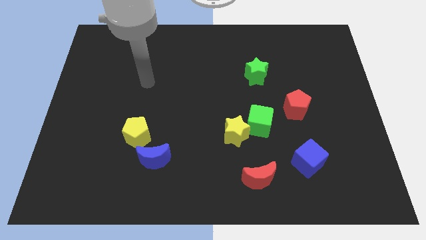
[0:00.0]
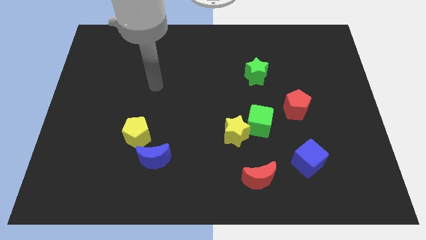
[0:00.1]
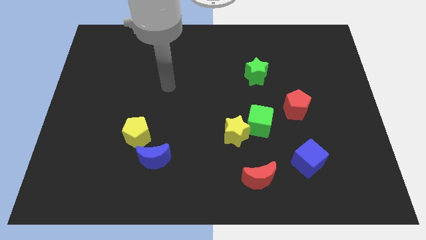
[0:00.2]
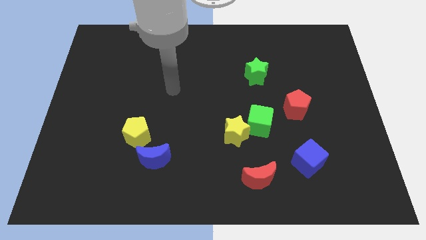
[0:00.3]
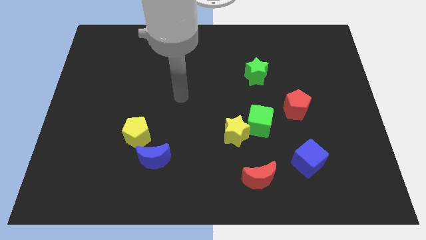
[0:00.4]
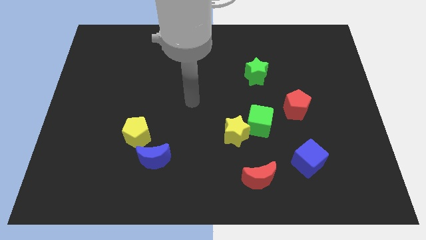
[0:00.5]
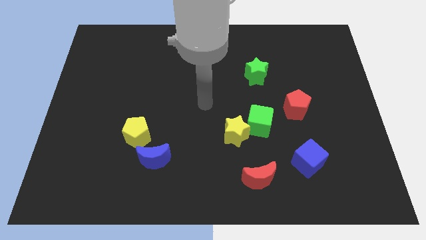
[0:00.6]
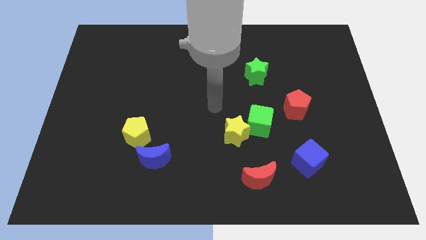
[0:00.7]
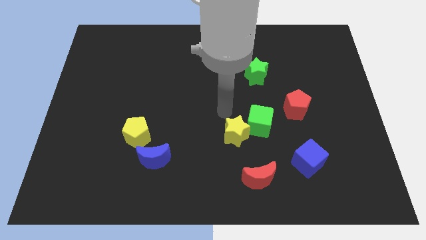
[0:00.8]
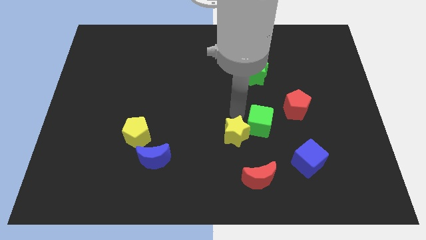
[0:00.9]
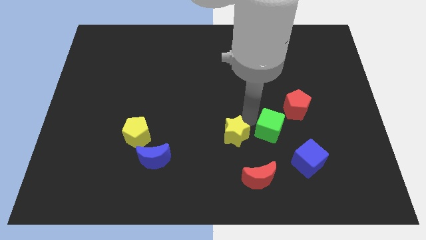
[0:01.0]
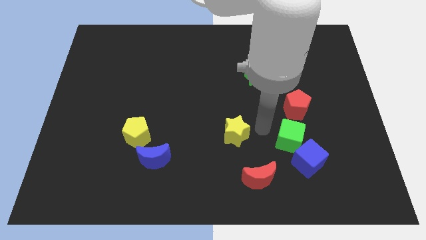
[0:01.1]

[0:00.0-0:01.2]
pull the yellow star apart from the green cube

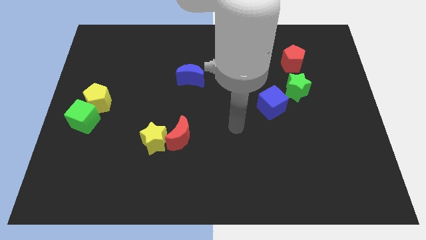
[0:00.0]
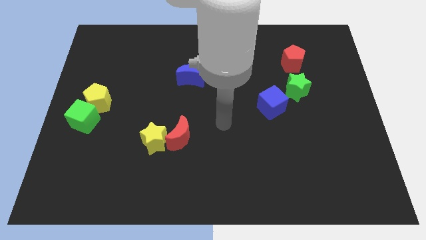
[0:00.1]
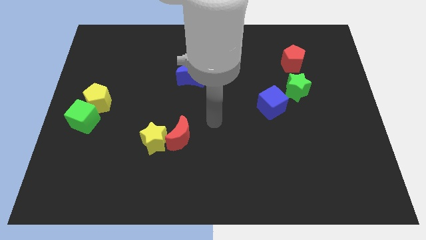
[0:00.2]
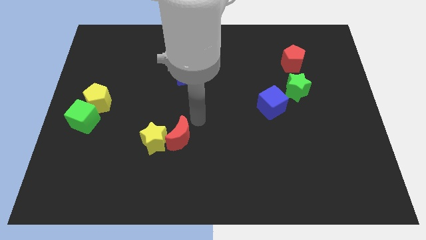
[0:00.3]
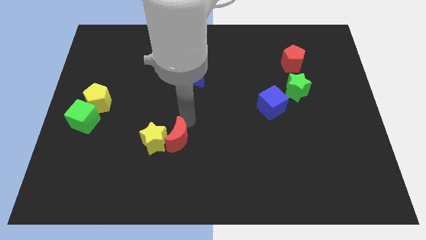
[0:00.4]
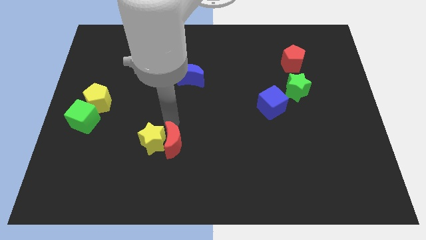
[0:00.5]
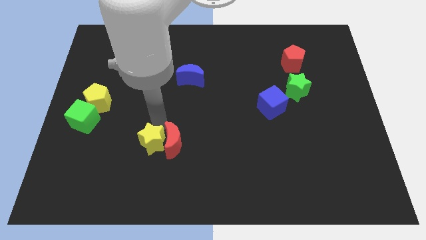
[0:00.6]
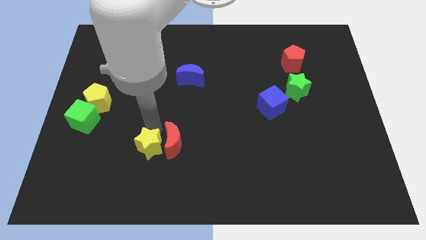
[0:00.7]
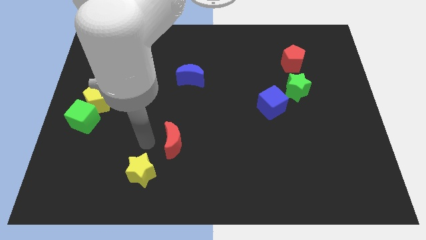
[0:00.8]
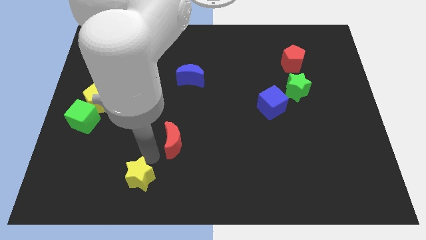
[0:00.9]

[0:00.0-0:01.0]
pull the red moon apart from the yellow star

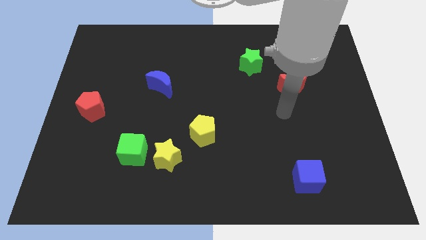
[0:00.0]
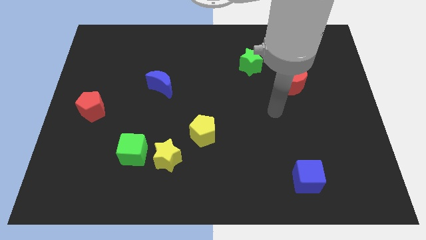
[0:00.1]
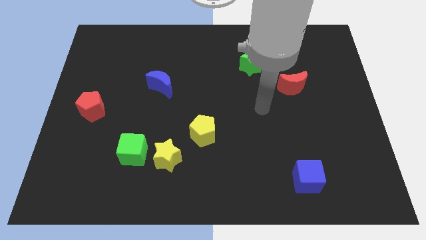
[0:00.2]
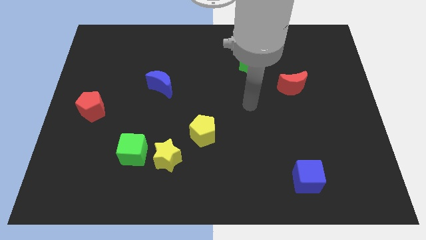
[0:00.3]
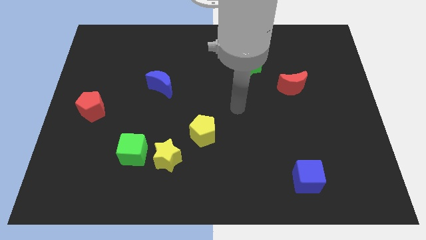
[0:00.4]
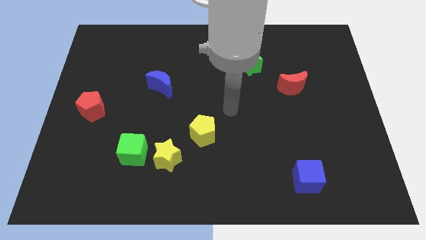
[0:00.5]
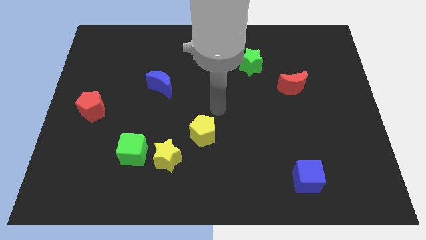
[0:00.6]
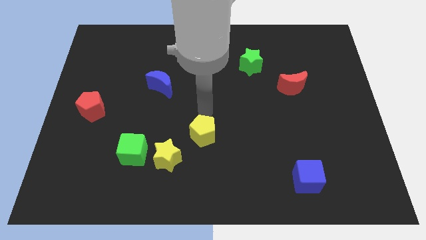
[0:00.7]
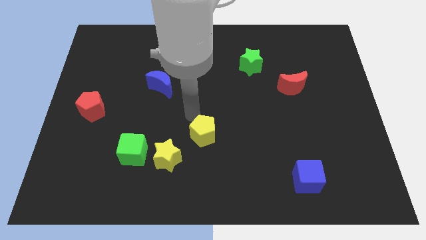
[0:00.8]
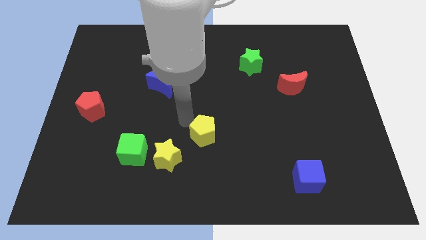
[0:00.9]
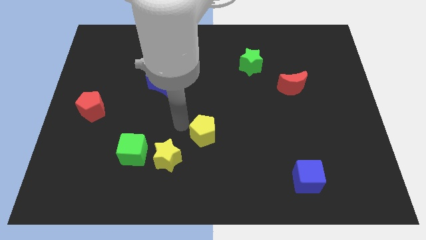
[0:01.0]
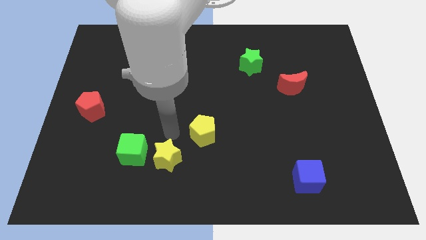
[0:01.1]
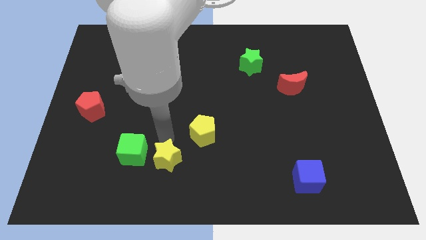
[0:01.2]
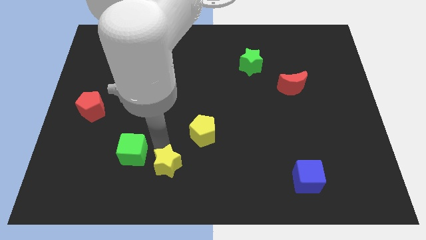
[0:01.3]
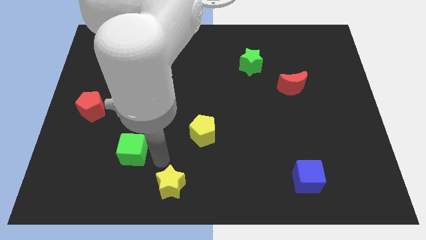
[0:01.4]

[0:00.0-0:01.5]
separate the green cube from the yellow star

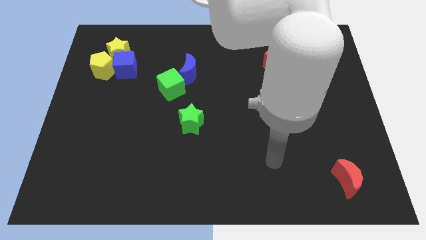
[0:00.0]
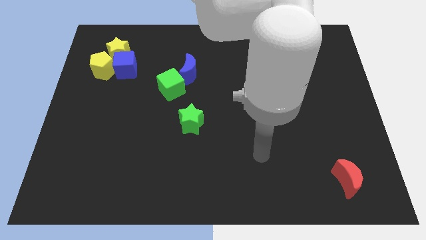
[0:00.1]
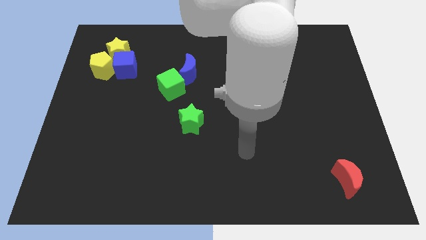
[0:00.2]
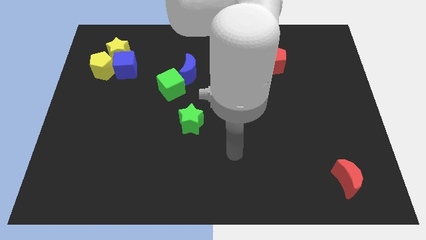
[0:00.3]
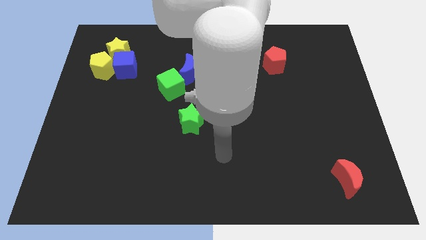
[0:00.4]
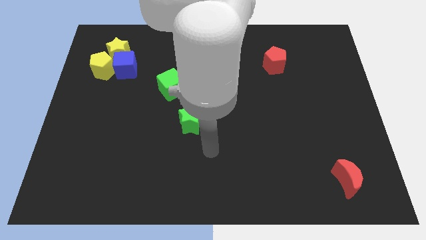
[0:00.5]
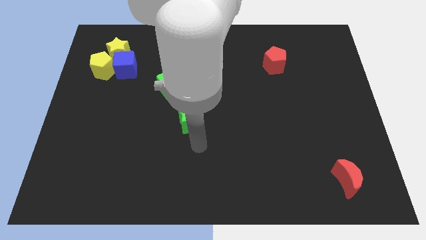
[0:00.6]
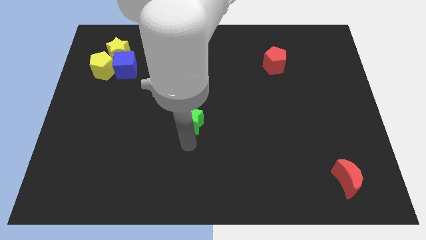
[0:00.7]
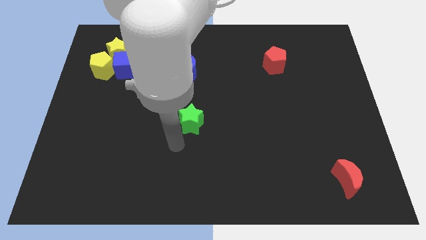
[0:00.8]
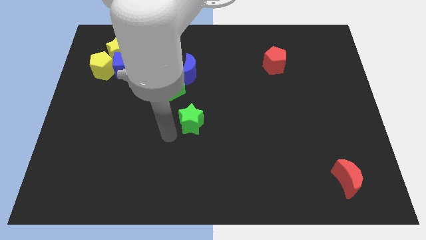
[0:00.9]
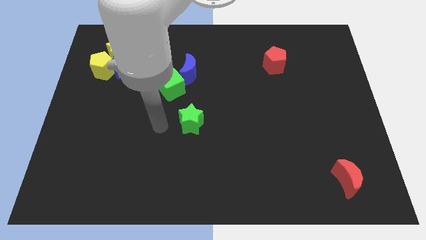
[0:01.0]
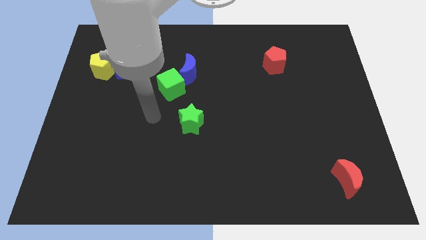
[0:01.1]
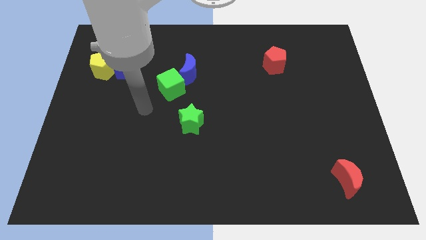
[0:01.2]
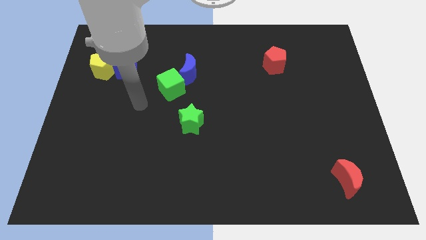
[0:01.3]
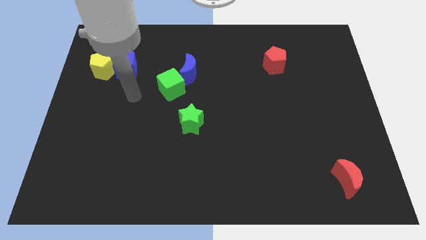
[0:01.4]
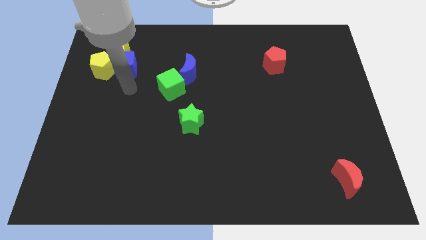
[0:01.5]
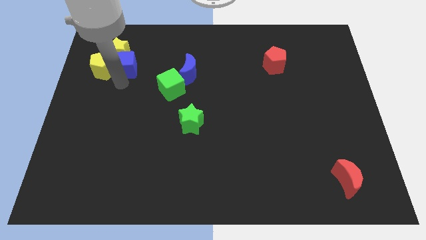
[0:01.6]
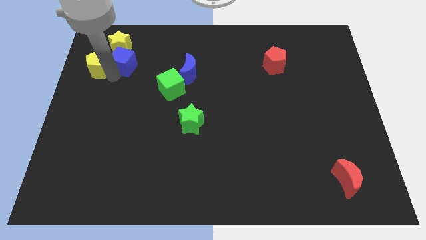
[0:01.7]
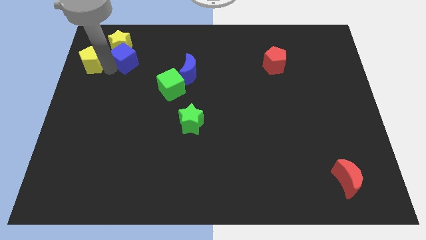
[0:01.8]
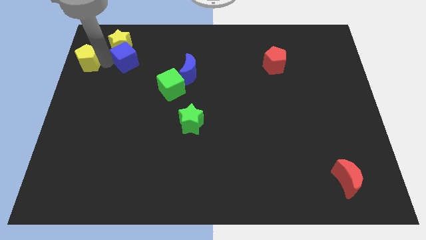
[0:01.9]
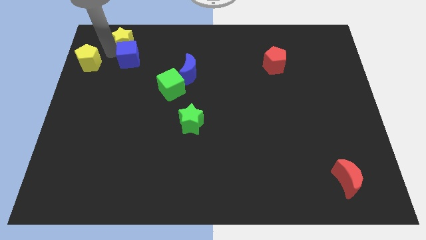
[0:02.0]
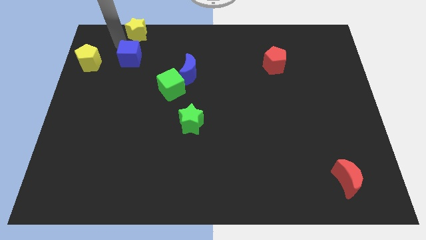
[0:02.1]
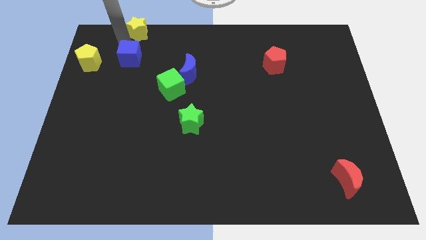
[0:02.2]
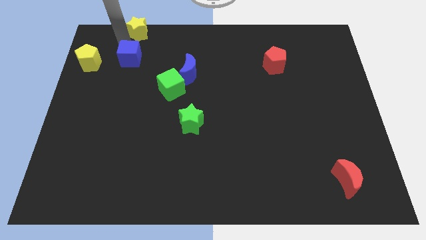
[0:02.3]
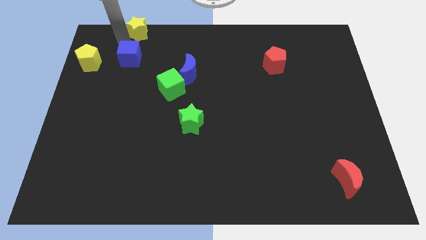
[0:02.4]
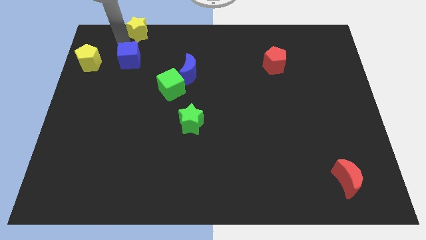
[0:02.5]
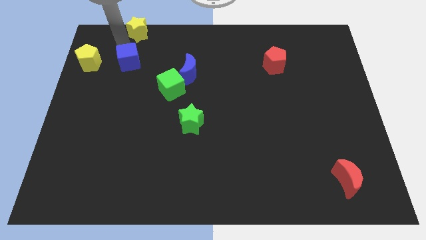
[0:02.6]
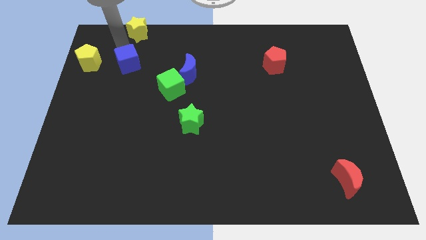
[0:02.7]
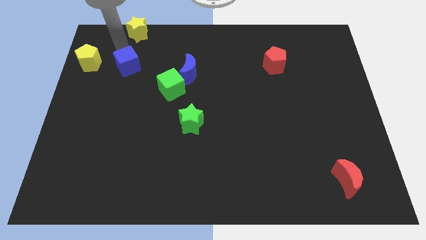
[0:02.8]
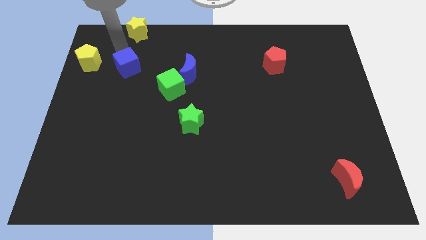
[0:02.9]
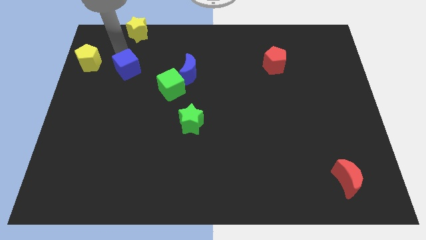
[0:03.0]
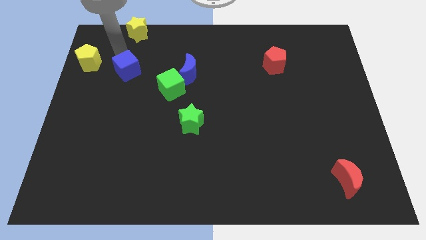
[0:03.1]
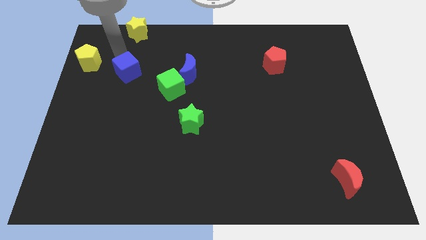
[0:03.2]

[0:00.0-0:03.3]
move the blue cube away from the yellow star and yellow pentagon

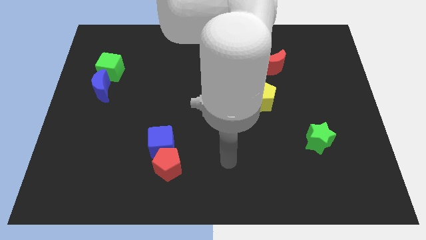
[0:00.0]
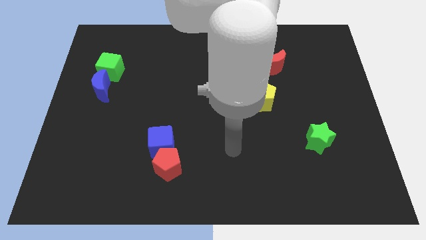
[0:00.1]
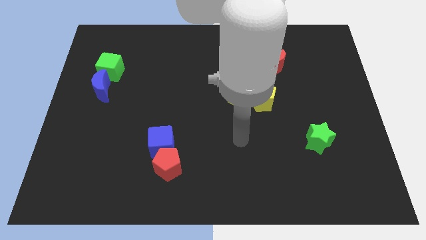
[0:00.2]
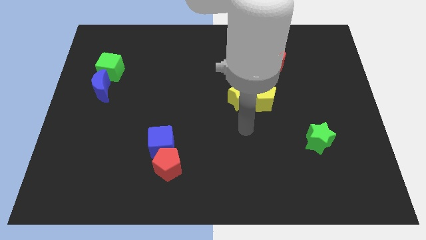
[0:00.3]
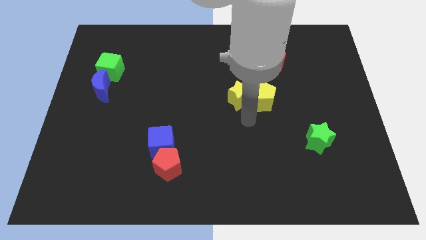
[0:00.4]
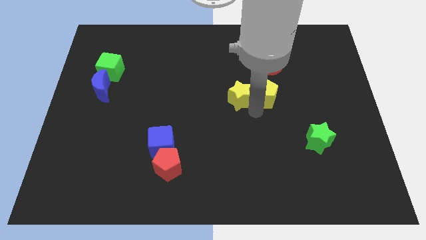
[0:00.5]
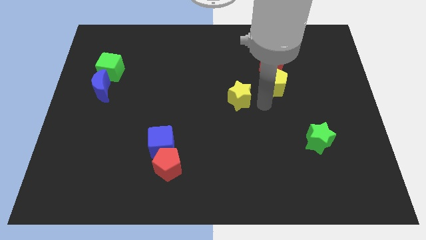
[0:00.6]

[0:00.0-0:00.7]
pull the yellow star apart from the yellow pentagon

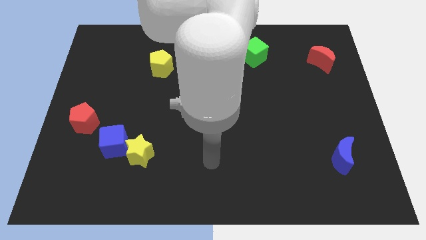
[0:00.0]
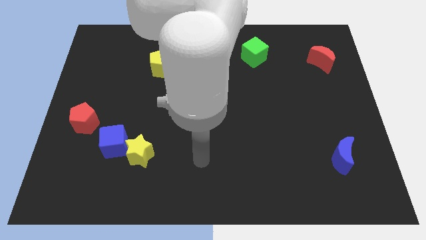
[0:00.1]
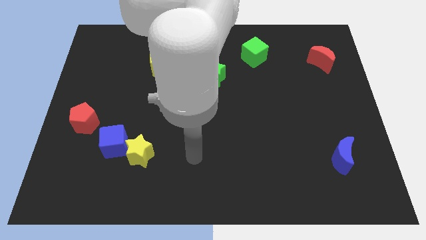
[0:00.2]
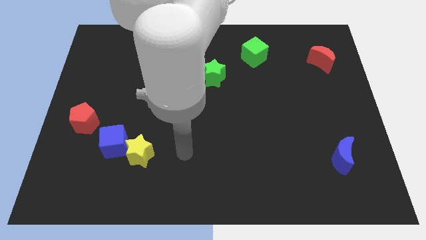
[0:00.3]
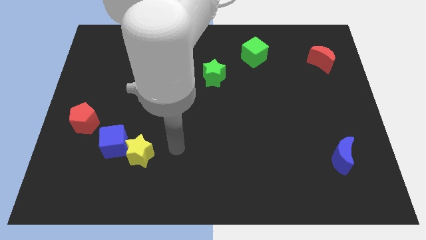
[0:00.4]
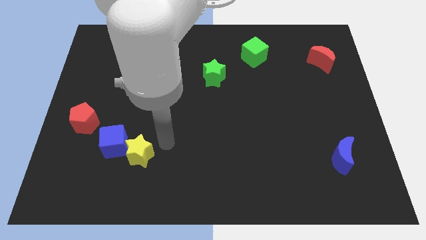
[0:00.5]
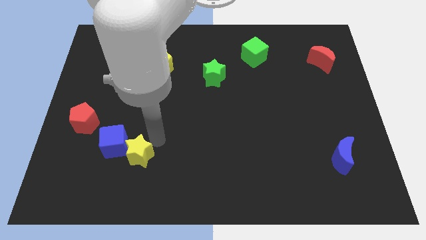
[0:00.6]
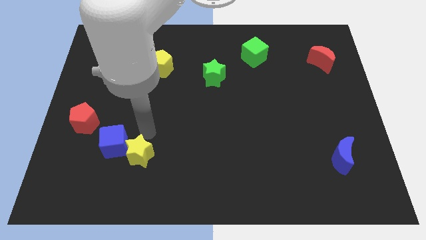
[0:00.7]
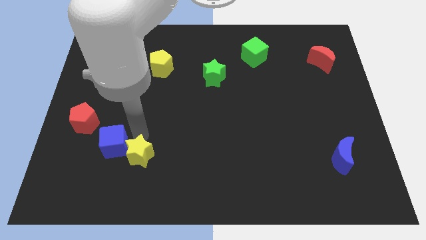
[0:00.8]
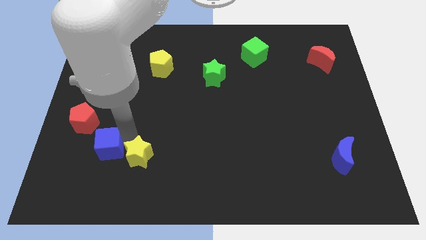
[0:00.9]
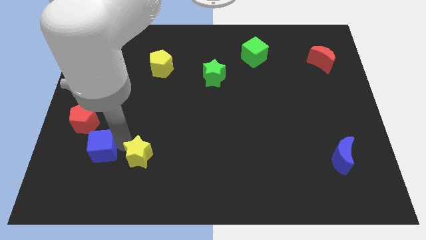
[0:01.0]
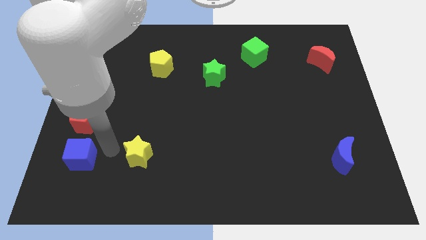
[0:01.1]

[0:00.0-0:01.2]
separate the yellow star from the blue cube

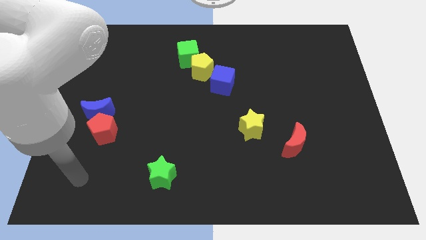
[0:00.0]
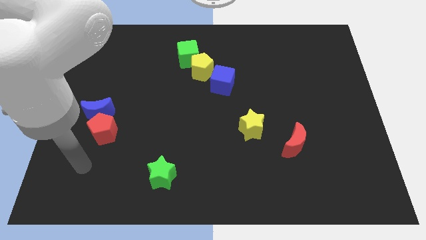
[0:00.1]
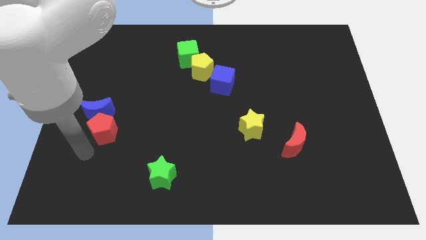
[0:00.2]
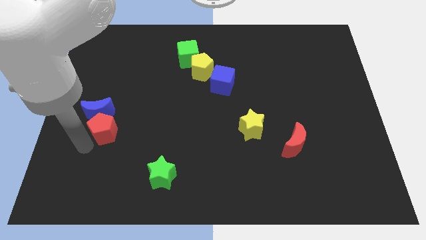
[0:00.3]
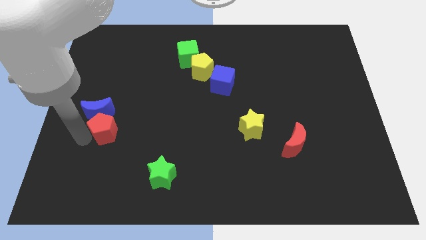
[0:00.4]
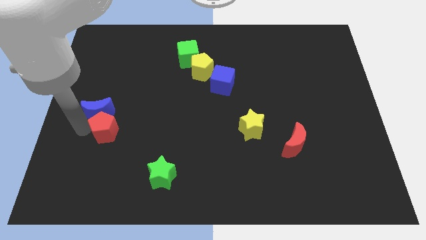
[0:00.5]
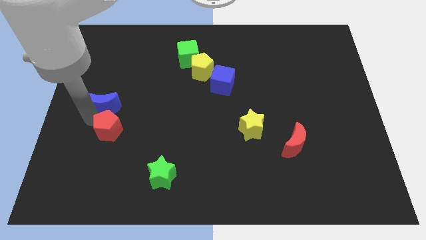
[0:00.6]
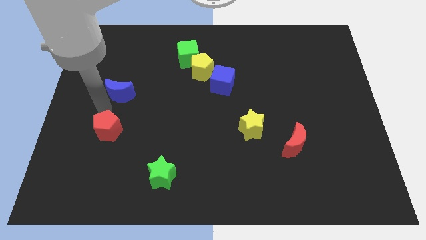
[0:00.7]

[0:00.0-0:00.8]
move the red pentagon away from the blue moon
